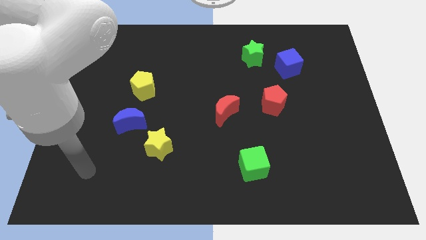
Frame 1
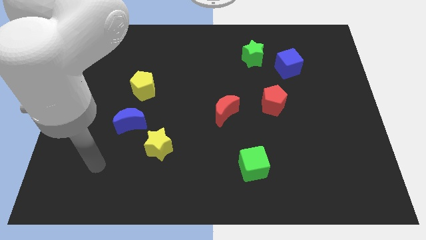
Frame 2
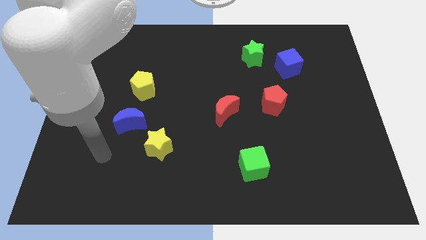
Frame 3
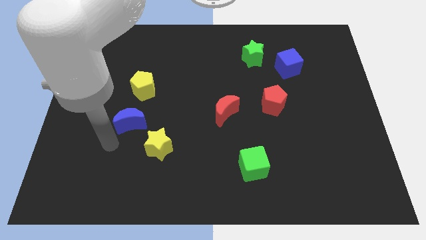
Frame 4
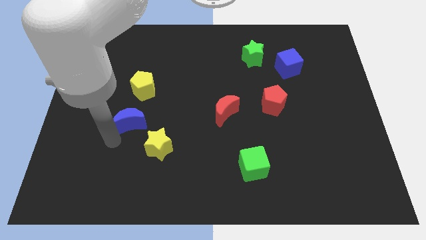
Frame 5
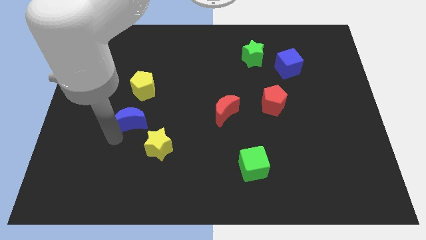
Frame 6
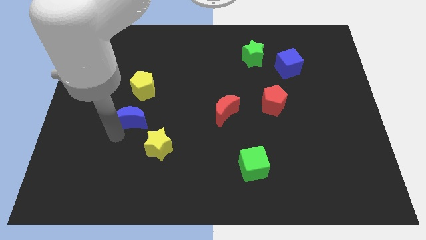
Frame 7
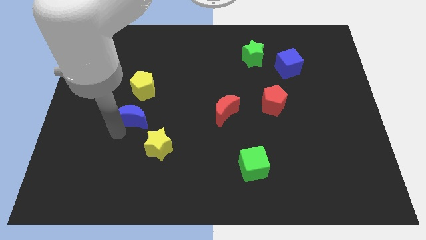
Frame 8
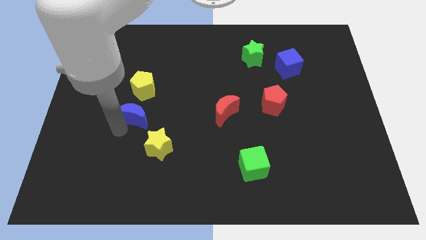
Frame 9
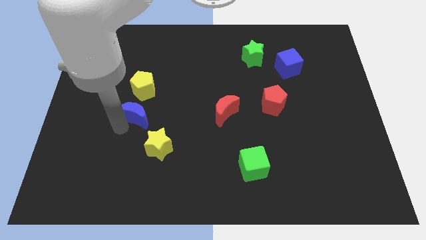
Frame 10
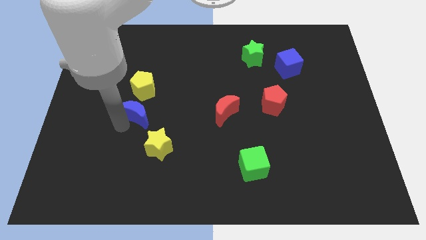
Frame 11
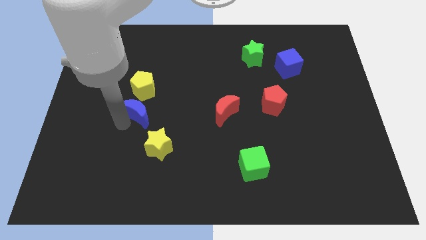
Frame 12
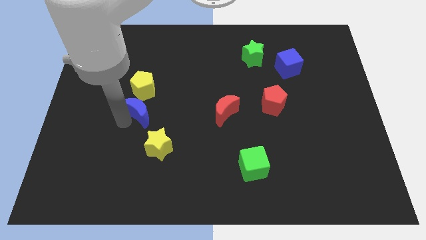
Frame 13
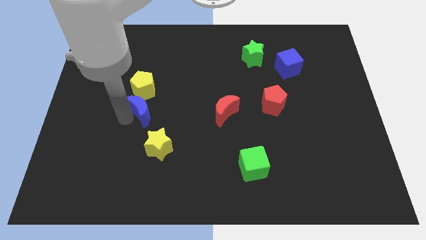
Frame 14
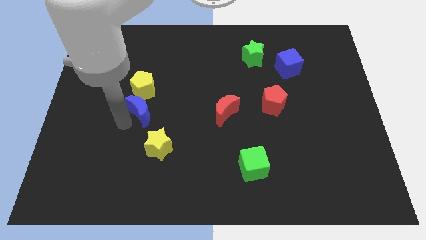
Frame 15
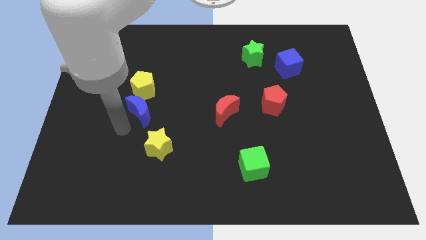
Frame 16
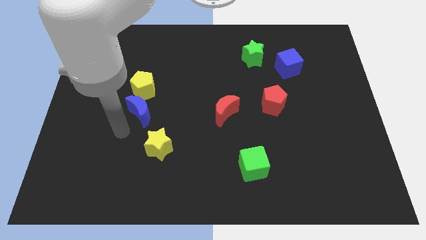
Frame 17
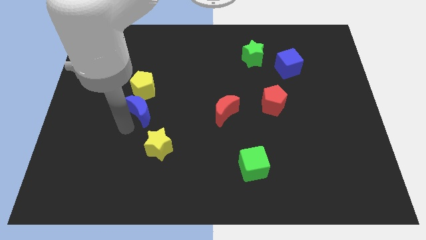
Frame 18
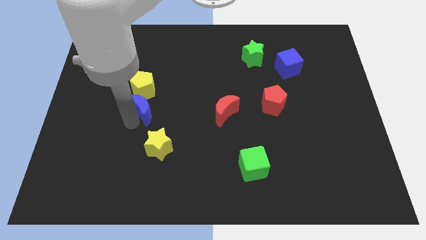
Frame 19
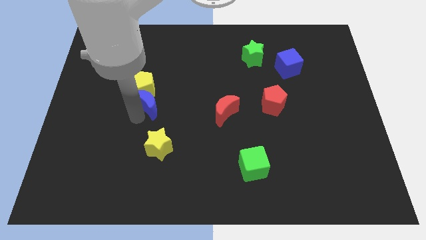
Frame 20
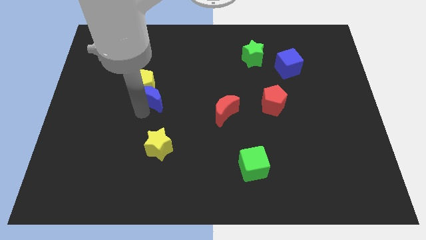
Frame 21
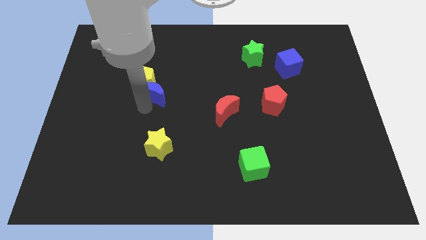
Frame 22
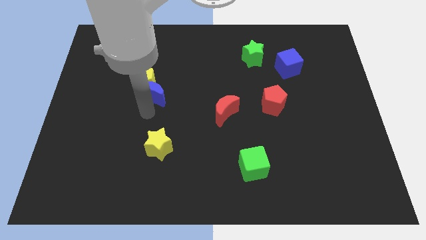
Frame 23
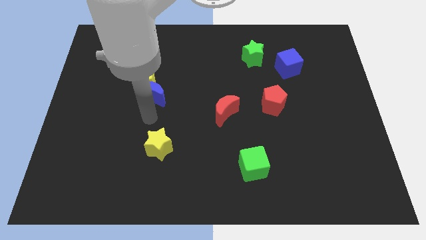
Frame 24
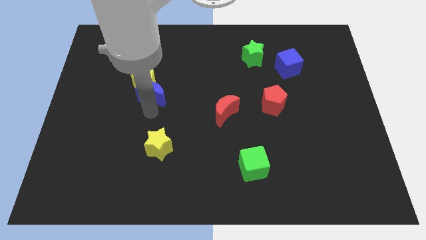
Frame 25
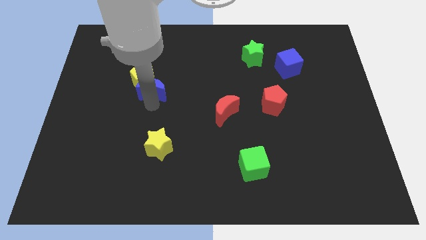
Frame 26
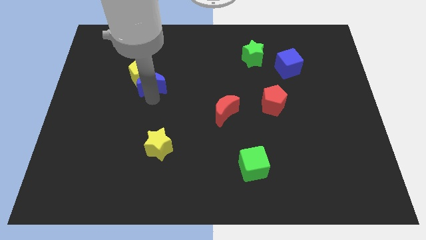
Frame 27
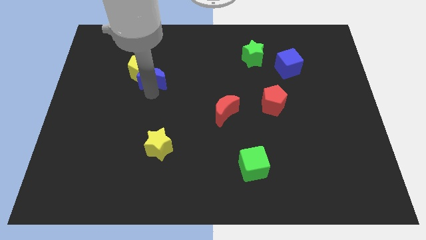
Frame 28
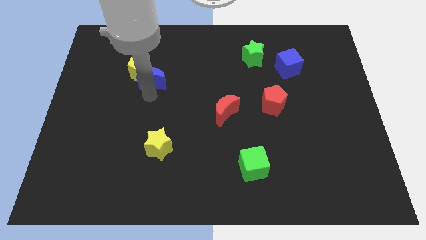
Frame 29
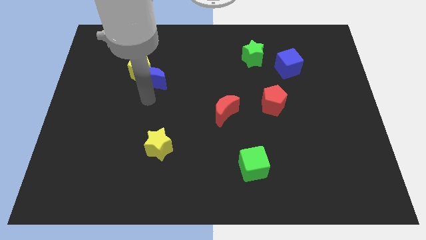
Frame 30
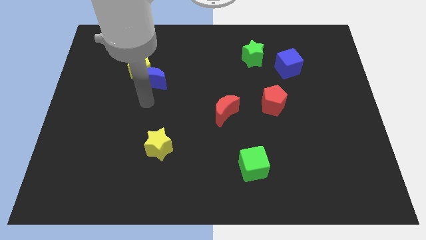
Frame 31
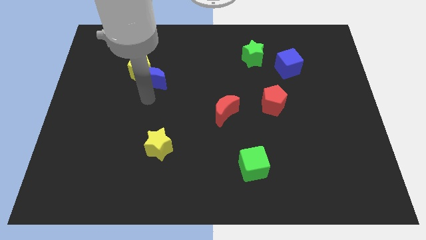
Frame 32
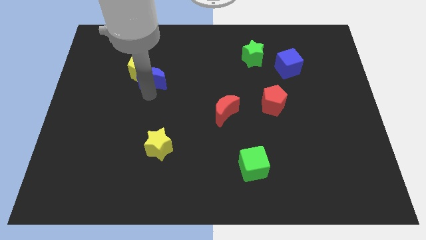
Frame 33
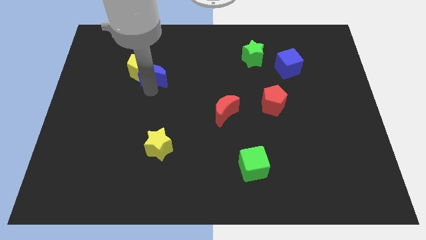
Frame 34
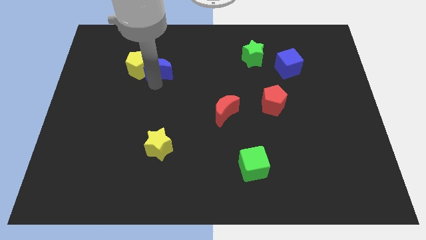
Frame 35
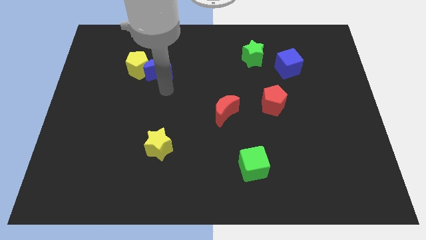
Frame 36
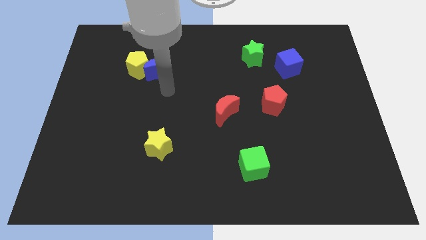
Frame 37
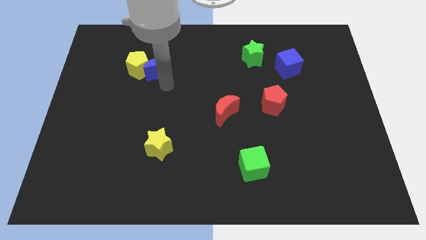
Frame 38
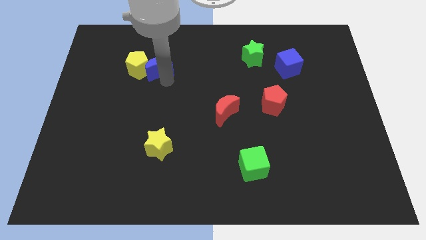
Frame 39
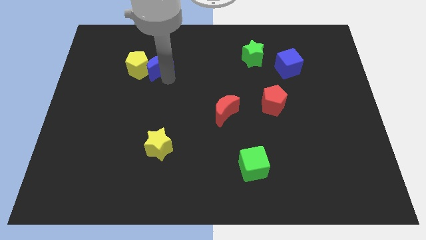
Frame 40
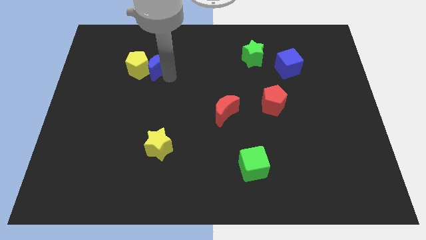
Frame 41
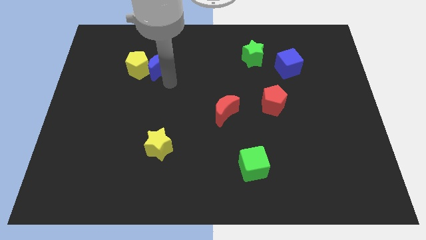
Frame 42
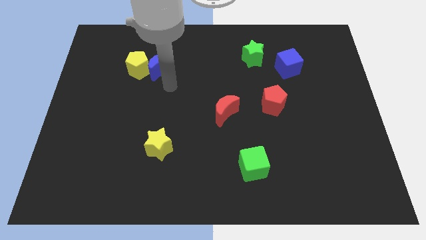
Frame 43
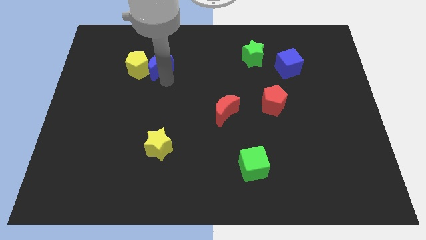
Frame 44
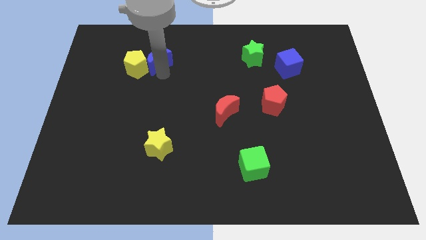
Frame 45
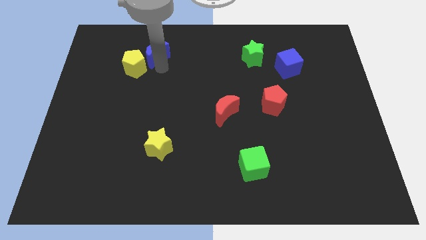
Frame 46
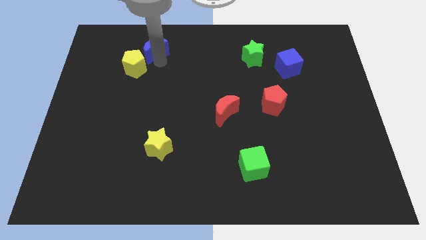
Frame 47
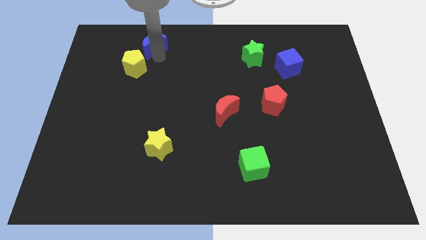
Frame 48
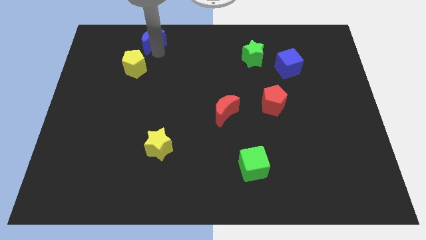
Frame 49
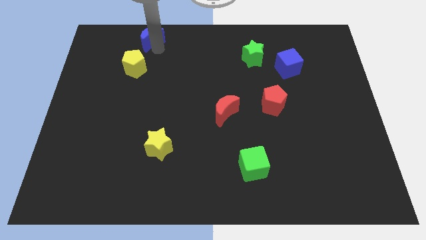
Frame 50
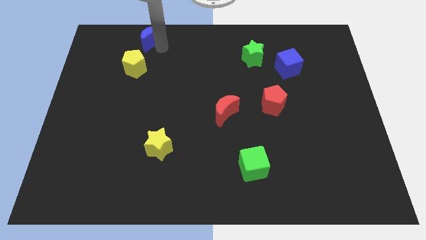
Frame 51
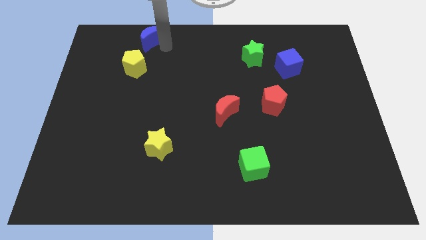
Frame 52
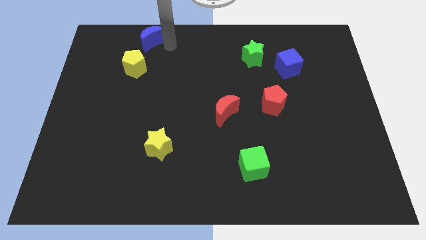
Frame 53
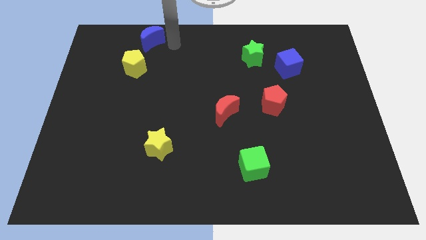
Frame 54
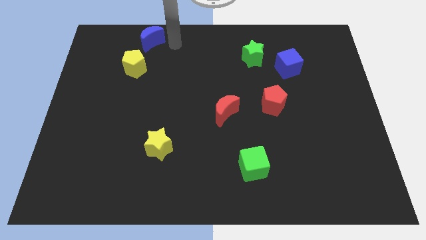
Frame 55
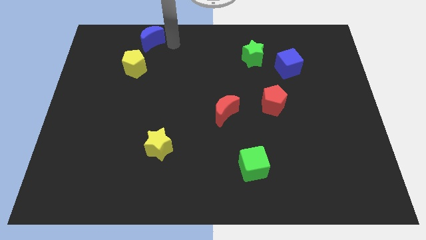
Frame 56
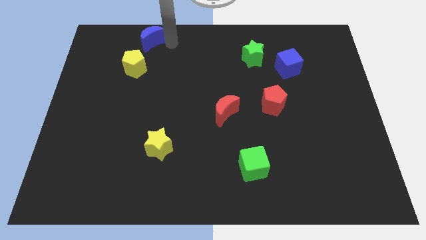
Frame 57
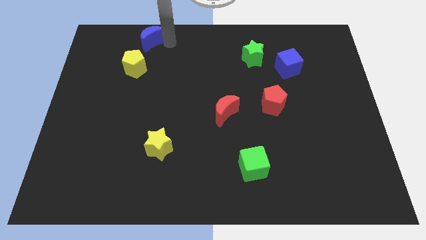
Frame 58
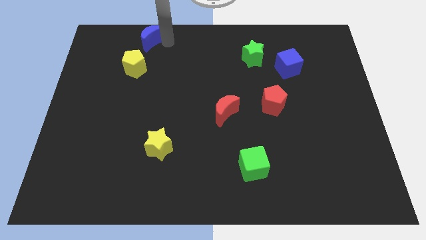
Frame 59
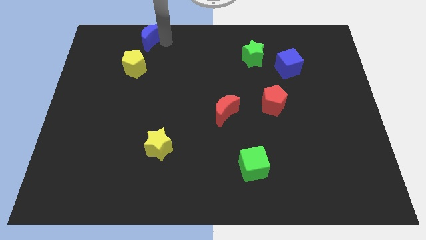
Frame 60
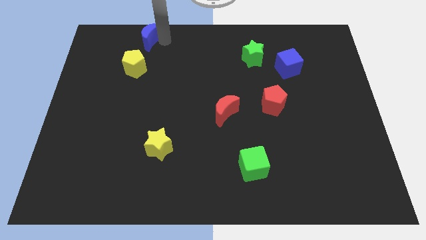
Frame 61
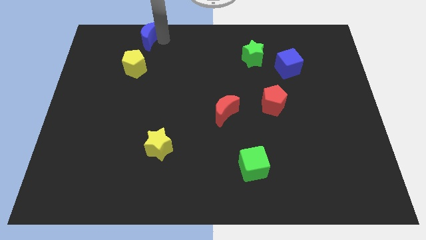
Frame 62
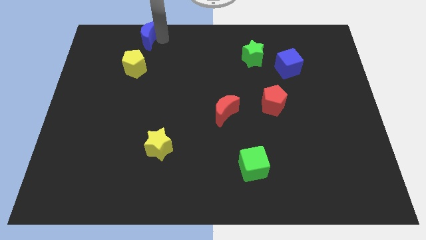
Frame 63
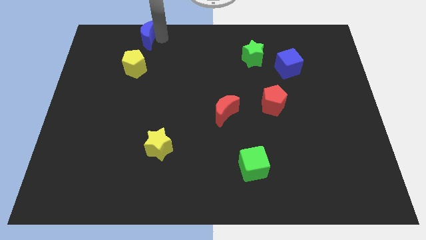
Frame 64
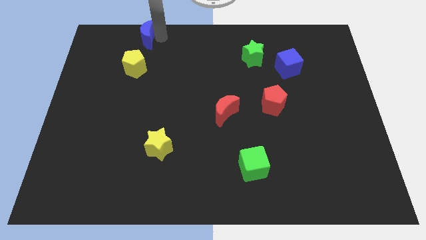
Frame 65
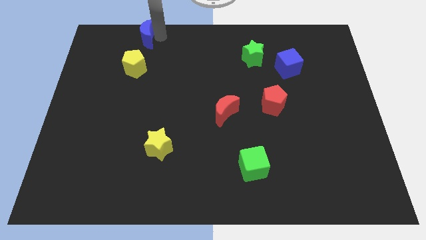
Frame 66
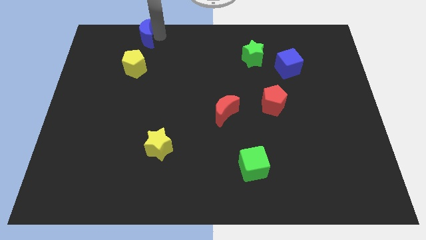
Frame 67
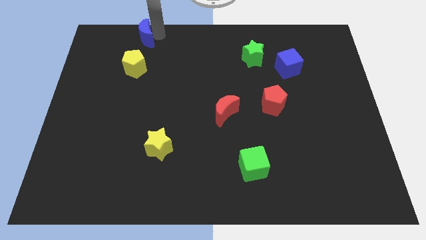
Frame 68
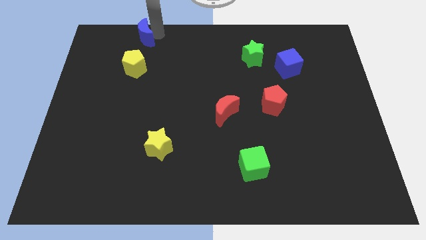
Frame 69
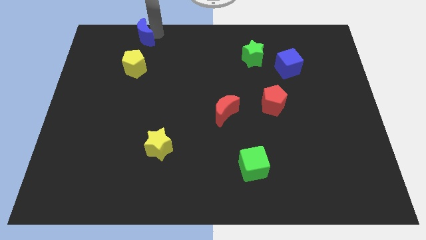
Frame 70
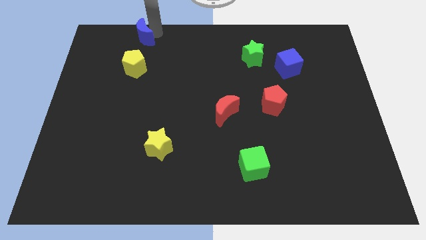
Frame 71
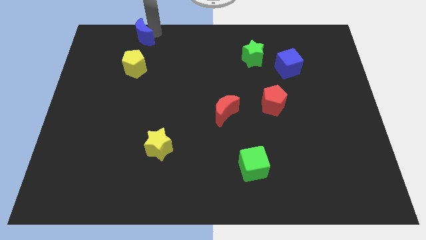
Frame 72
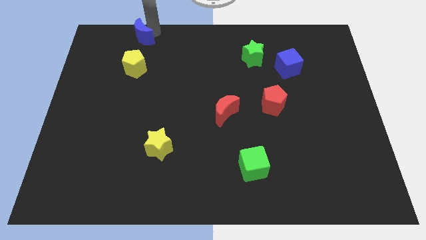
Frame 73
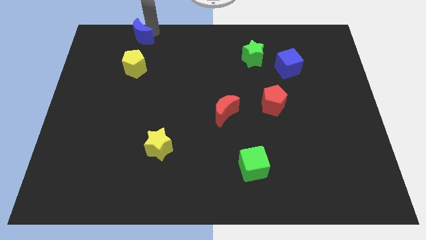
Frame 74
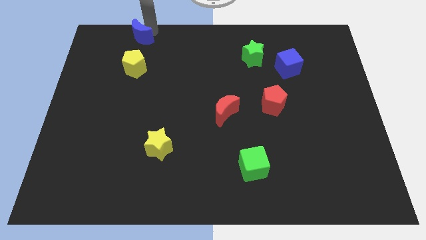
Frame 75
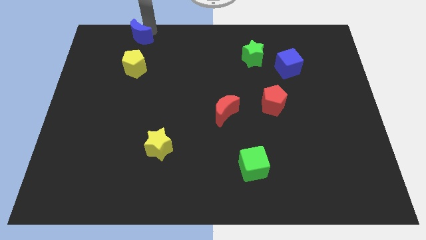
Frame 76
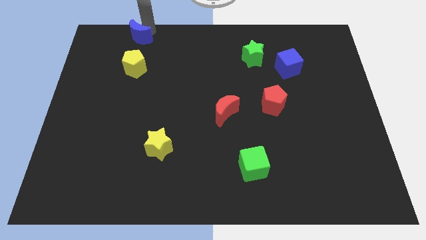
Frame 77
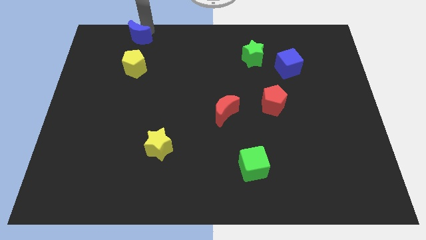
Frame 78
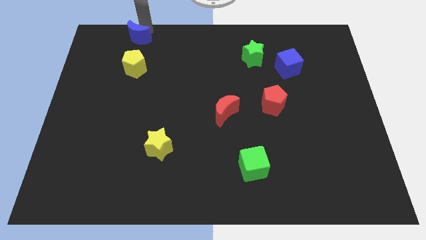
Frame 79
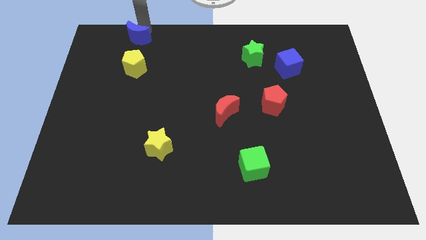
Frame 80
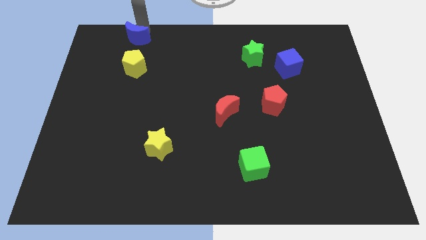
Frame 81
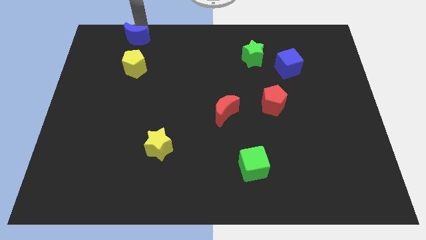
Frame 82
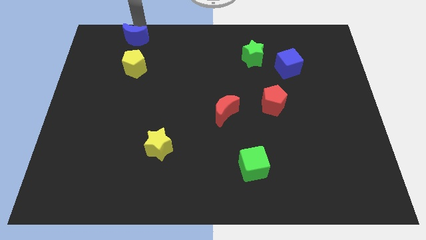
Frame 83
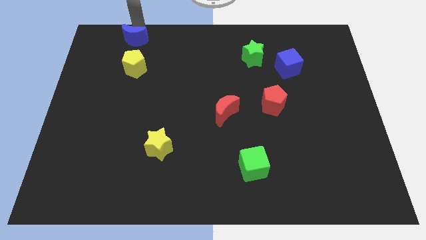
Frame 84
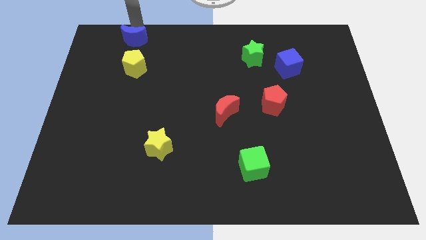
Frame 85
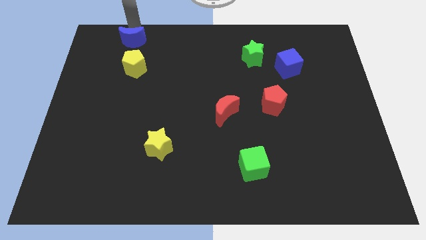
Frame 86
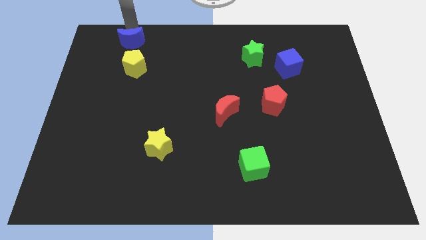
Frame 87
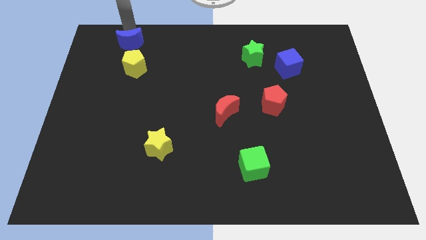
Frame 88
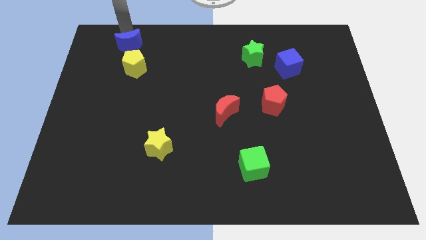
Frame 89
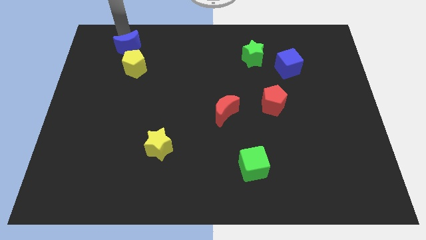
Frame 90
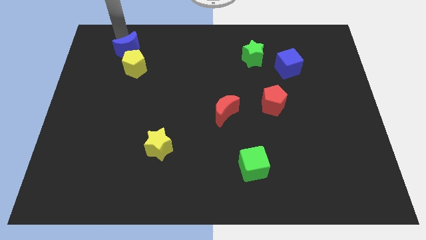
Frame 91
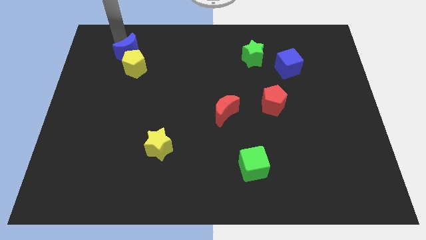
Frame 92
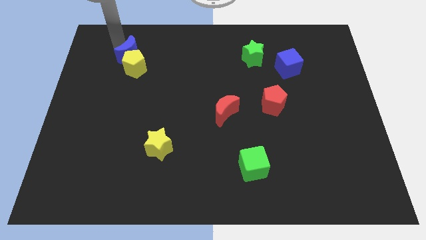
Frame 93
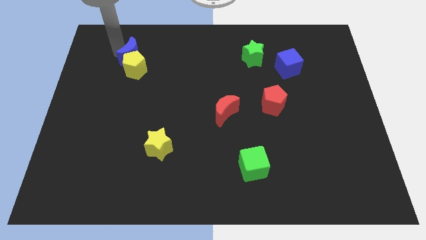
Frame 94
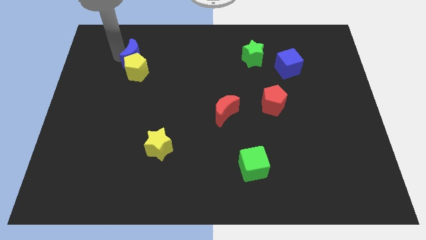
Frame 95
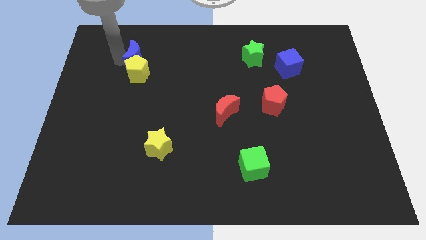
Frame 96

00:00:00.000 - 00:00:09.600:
slide the blue moon to the top of the yellow pentagon
